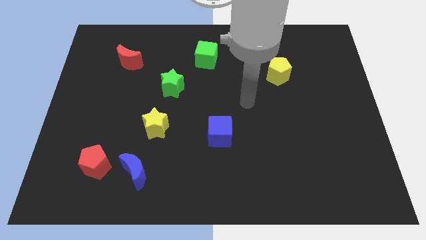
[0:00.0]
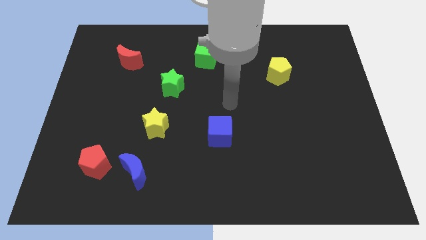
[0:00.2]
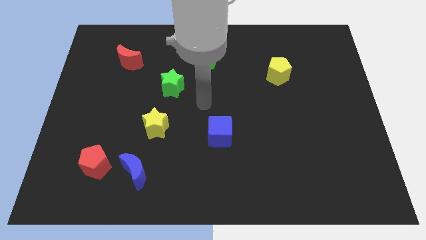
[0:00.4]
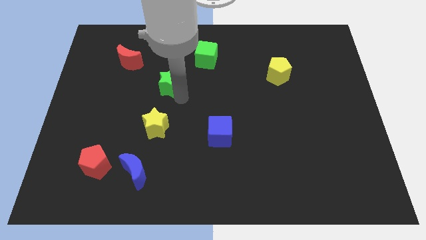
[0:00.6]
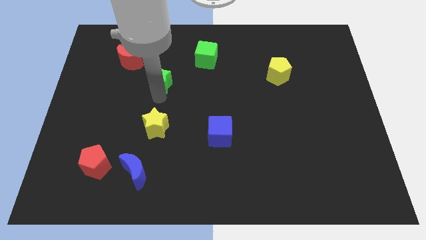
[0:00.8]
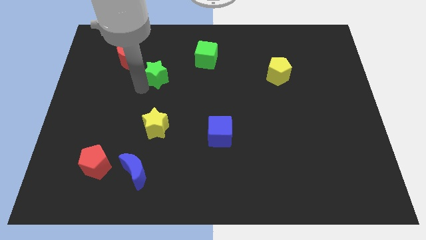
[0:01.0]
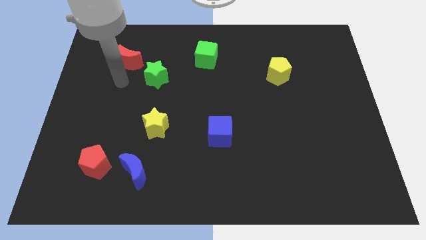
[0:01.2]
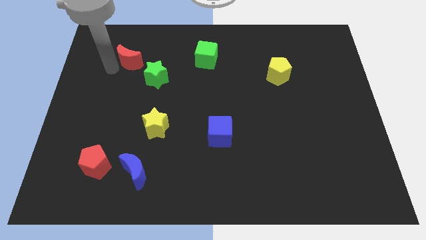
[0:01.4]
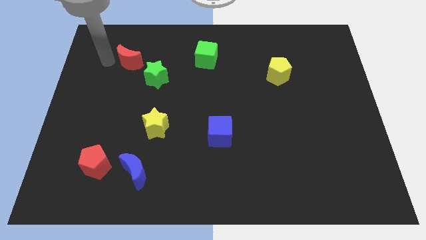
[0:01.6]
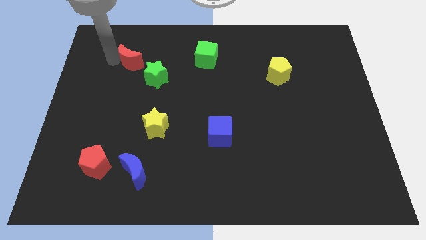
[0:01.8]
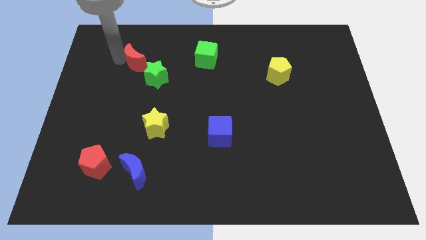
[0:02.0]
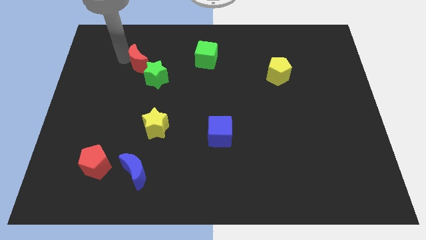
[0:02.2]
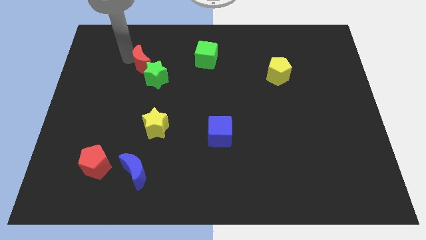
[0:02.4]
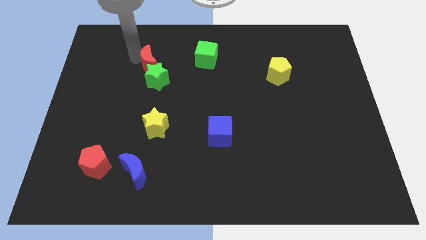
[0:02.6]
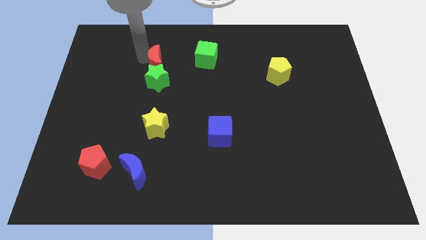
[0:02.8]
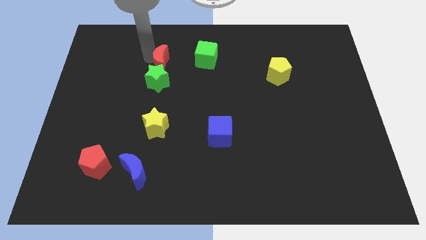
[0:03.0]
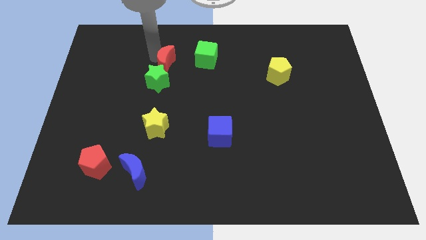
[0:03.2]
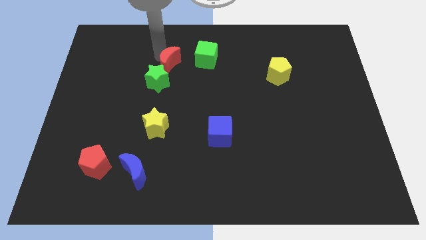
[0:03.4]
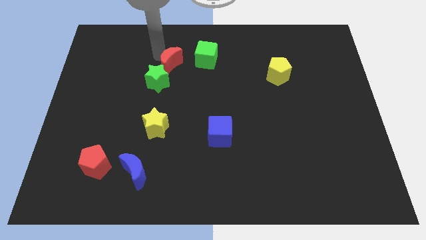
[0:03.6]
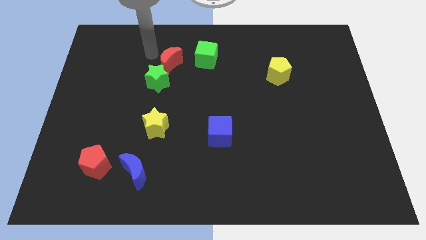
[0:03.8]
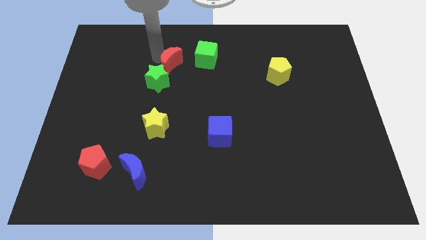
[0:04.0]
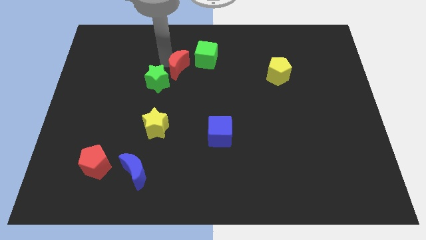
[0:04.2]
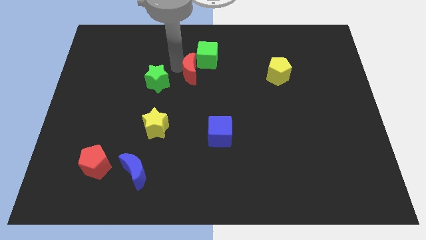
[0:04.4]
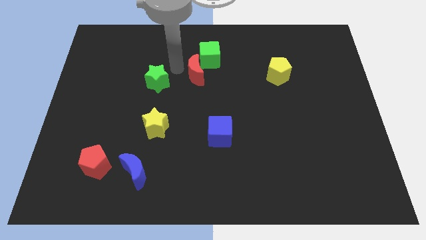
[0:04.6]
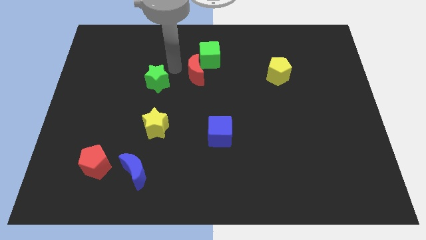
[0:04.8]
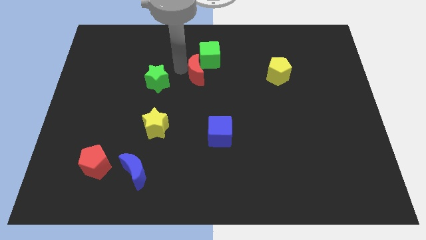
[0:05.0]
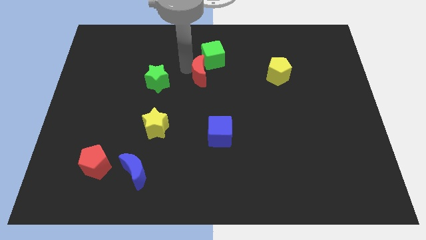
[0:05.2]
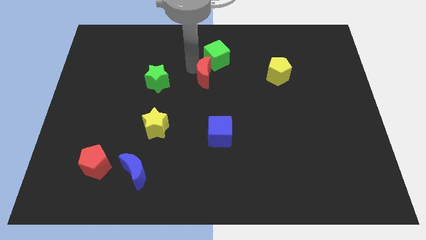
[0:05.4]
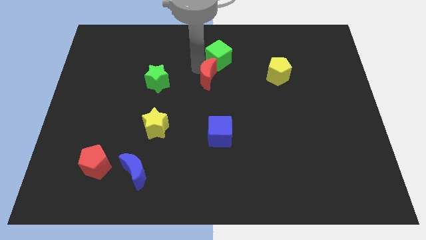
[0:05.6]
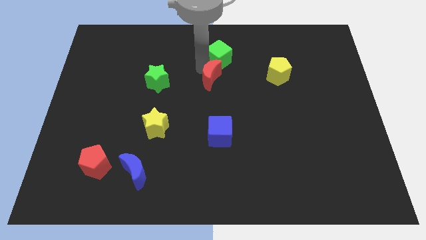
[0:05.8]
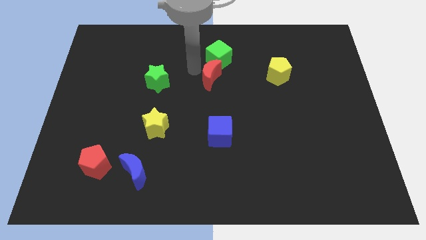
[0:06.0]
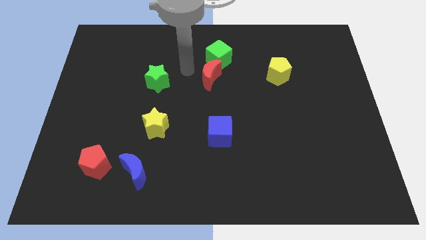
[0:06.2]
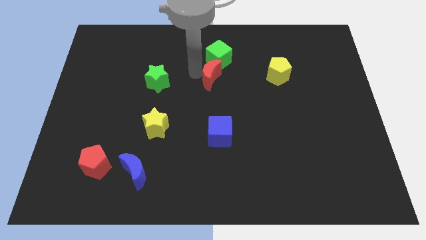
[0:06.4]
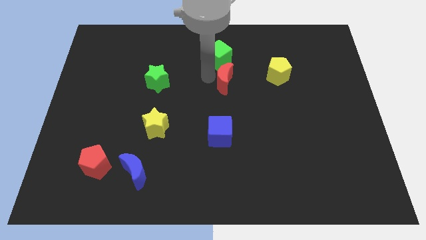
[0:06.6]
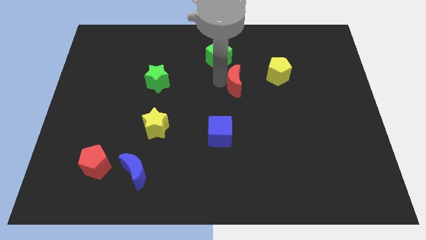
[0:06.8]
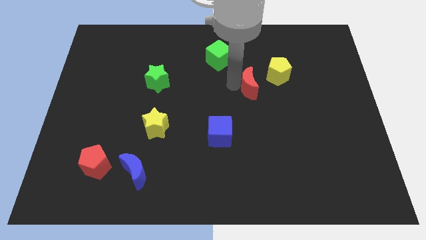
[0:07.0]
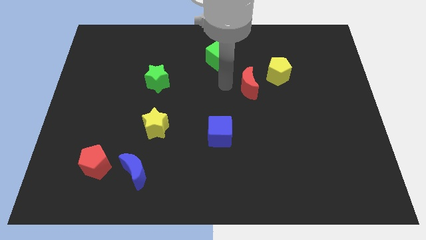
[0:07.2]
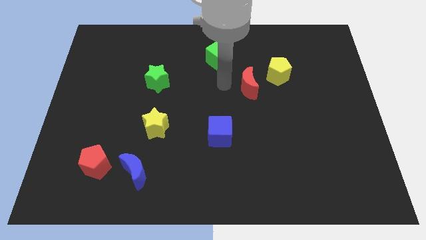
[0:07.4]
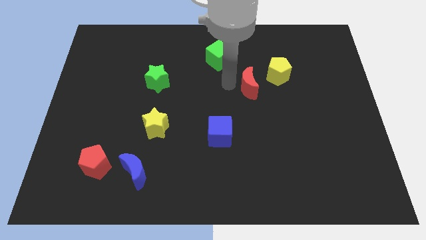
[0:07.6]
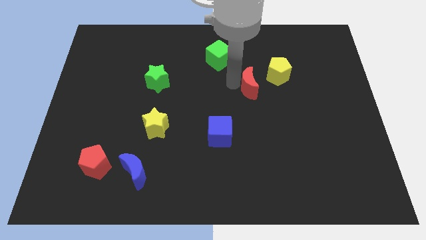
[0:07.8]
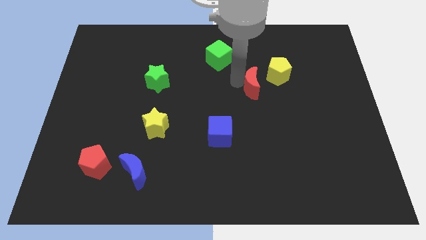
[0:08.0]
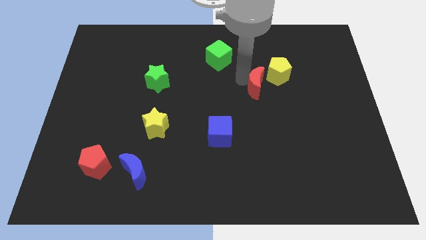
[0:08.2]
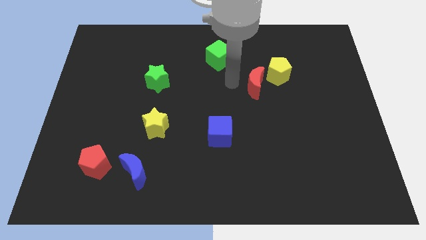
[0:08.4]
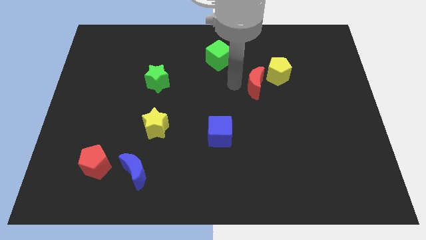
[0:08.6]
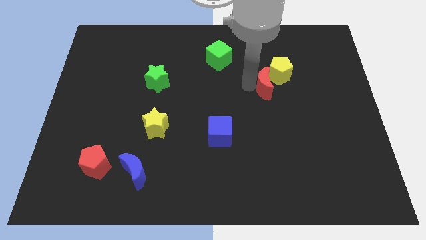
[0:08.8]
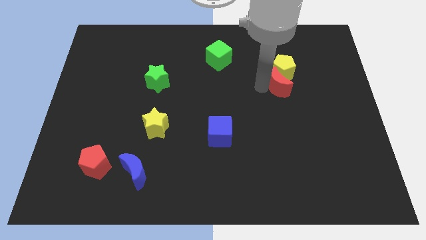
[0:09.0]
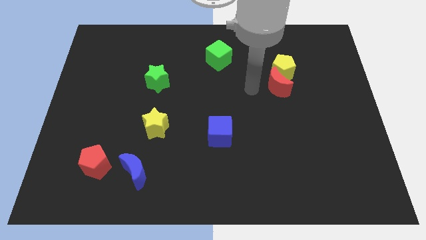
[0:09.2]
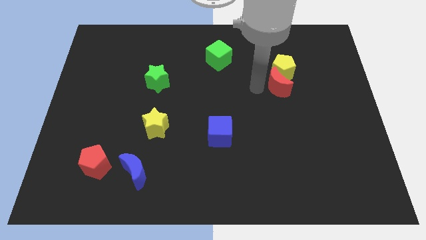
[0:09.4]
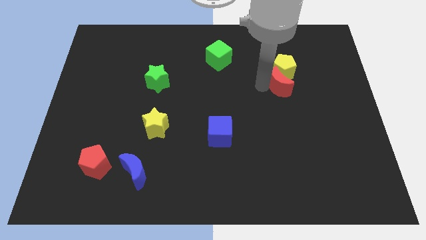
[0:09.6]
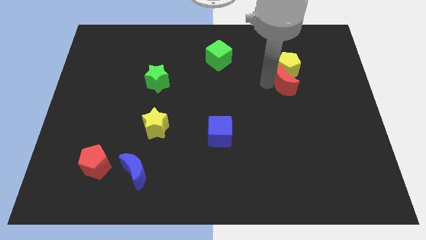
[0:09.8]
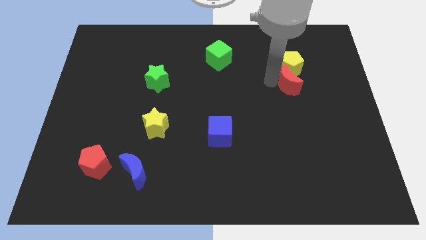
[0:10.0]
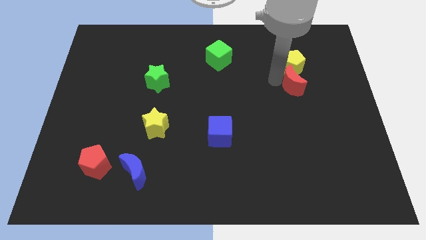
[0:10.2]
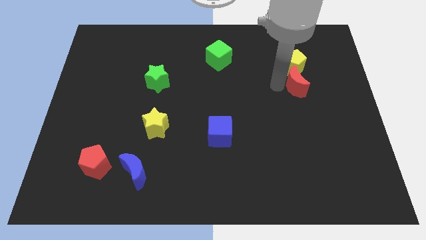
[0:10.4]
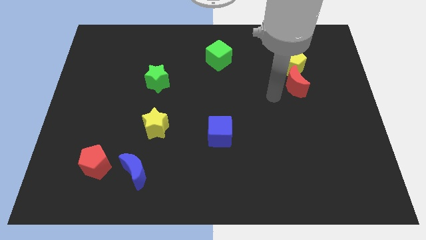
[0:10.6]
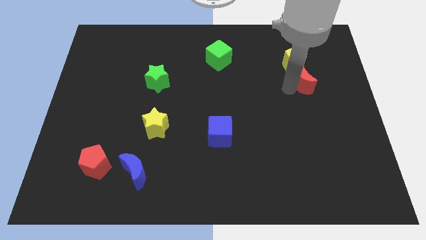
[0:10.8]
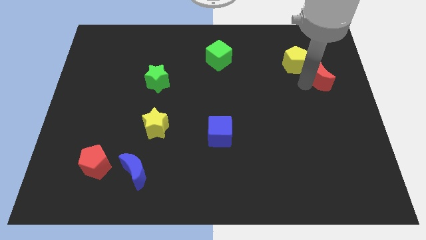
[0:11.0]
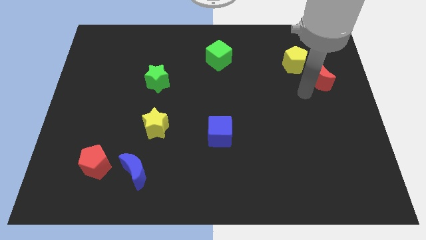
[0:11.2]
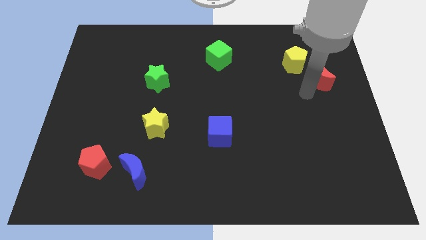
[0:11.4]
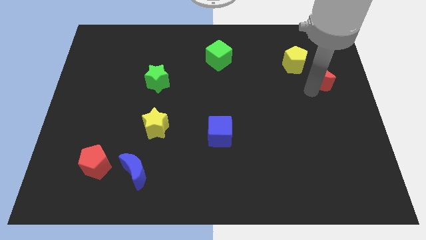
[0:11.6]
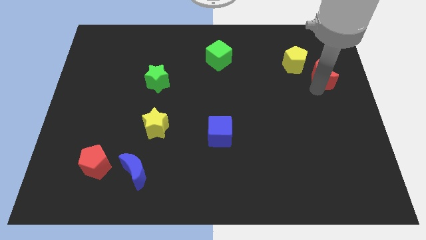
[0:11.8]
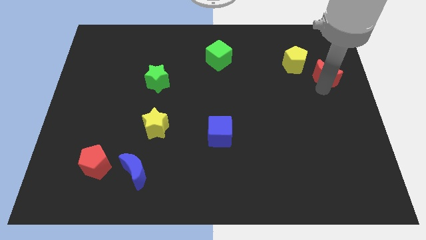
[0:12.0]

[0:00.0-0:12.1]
push the red moon just right of the yellow pentagon

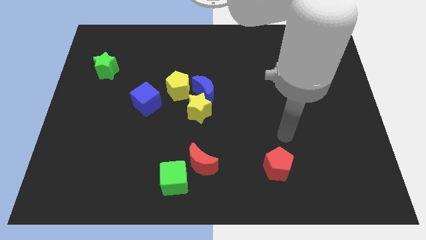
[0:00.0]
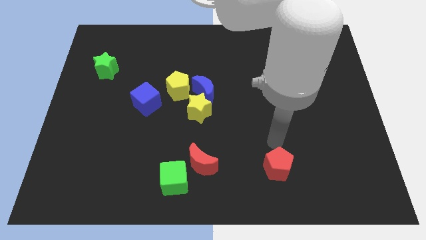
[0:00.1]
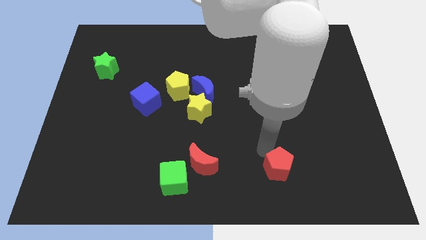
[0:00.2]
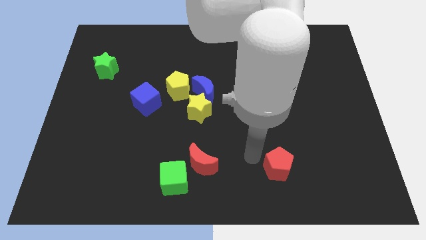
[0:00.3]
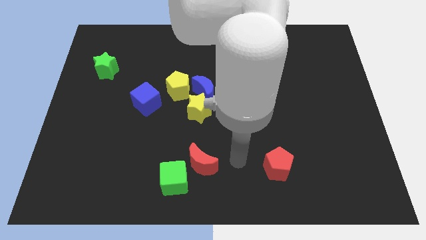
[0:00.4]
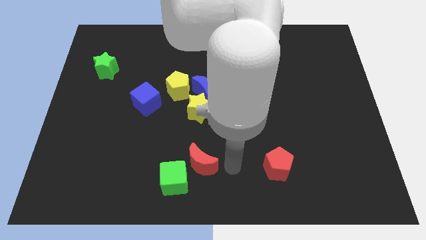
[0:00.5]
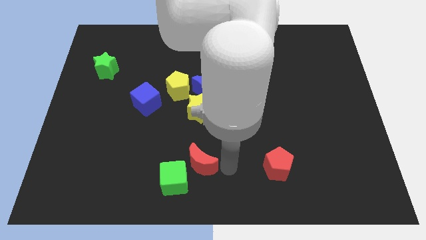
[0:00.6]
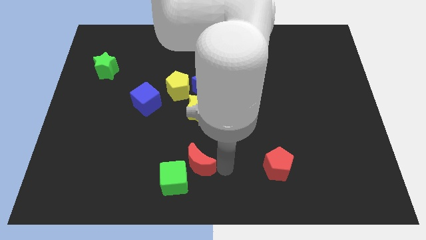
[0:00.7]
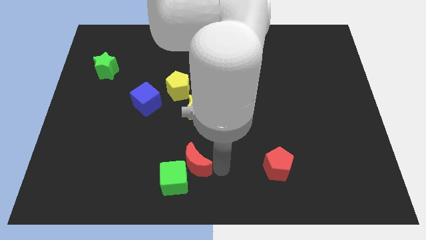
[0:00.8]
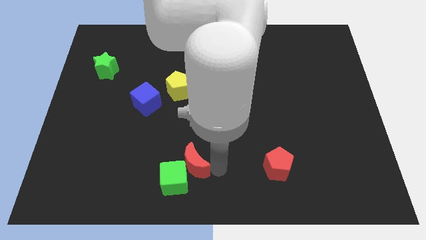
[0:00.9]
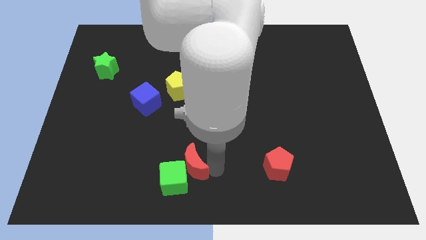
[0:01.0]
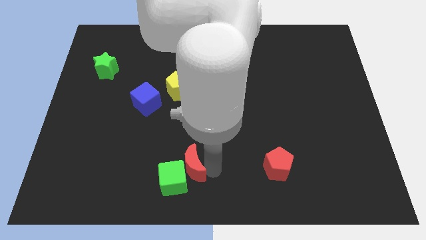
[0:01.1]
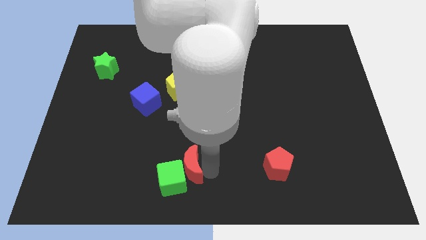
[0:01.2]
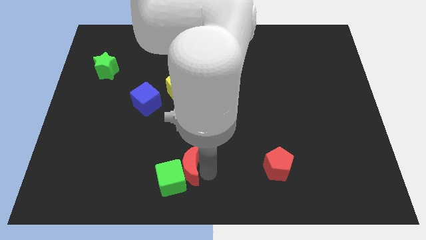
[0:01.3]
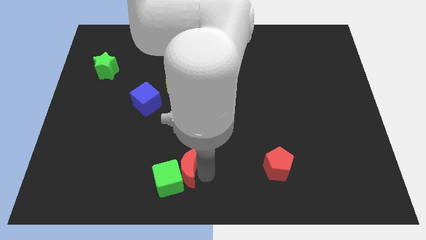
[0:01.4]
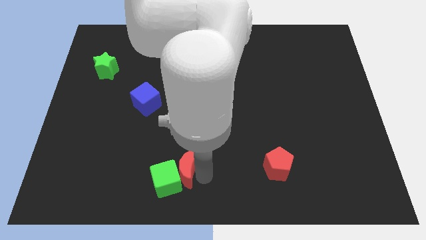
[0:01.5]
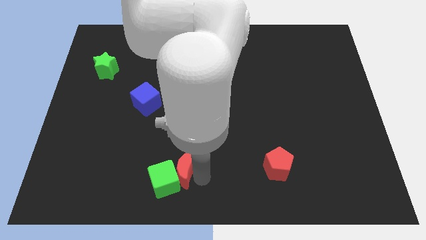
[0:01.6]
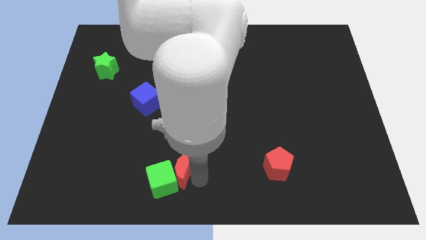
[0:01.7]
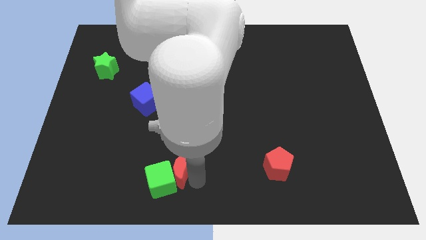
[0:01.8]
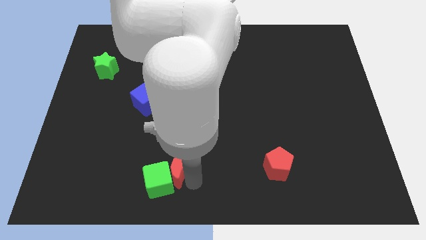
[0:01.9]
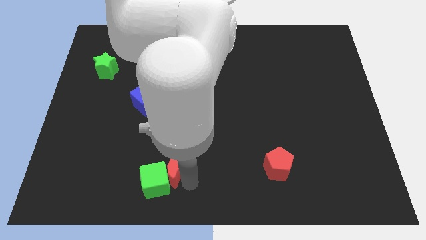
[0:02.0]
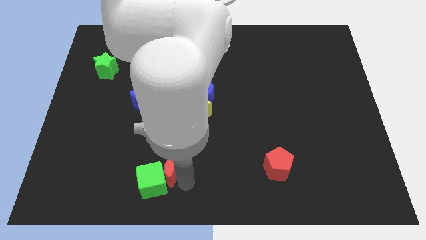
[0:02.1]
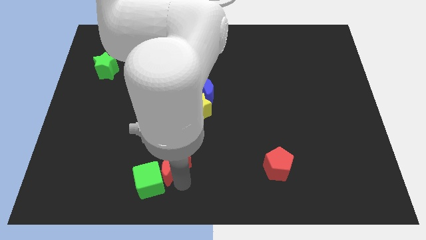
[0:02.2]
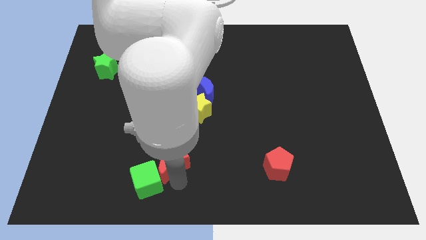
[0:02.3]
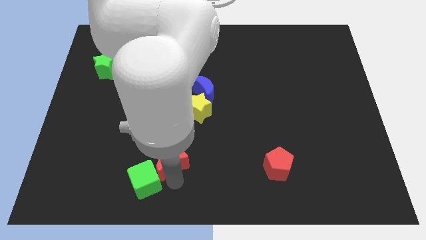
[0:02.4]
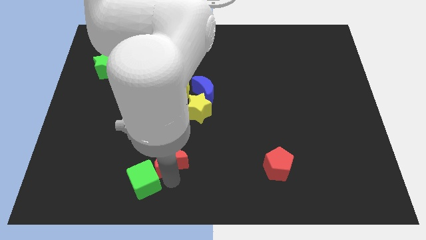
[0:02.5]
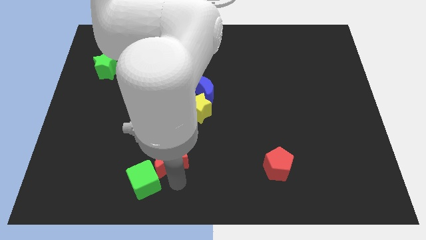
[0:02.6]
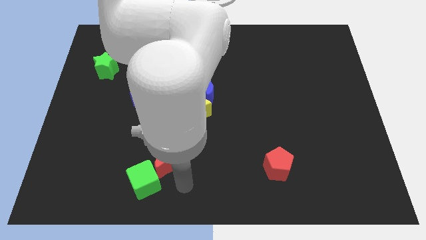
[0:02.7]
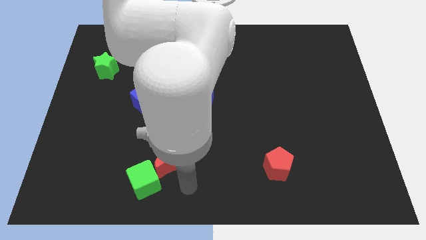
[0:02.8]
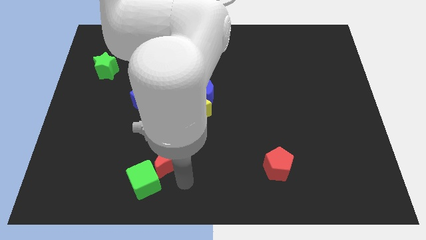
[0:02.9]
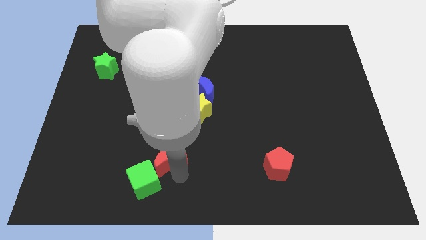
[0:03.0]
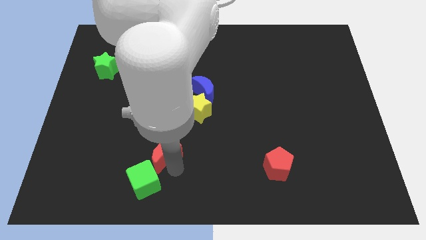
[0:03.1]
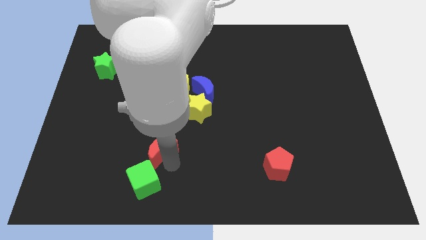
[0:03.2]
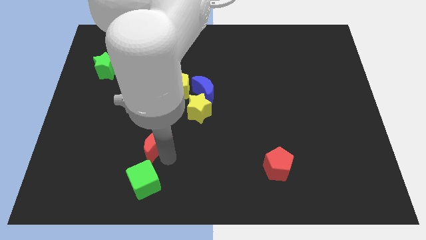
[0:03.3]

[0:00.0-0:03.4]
slide the red moon to the bottom side of the blue cube
